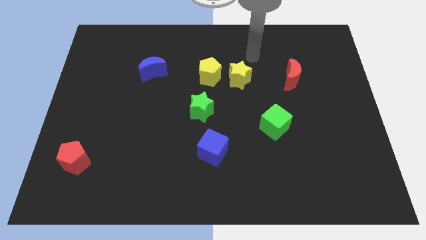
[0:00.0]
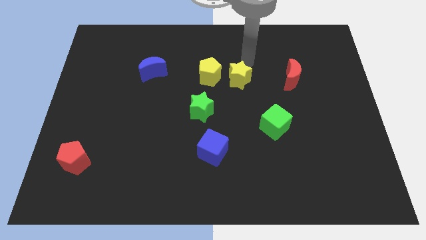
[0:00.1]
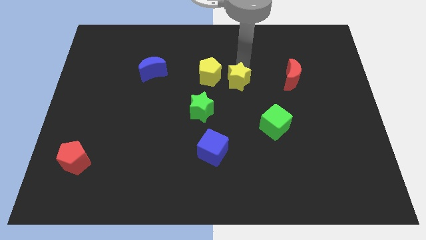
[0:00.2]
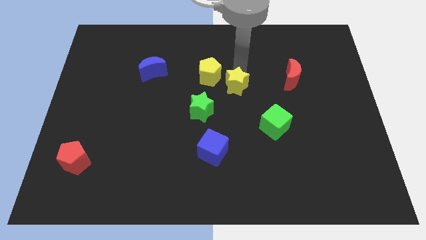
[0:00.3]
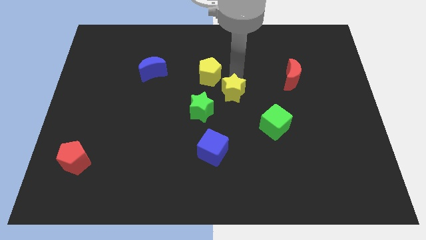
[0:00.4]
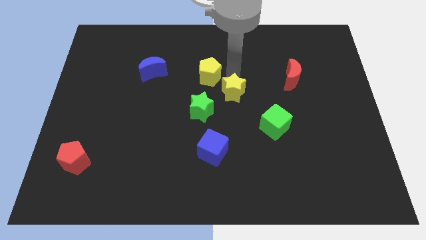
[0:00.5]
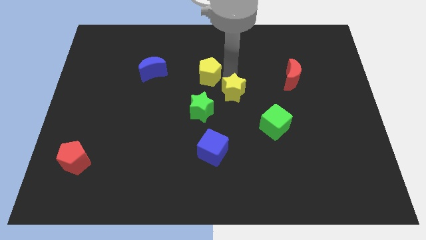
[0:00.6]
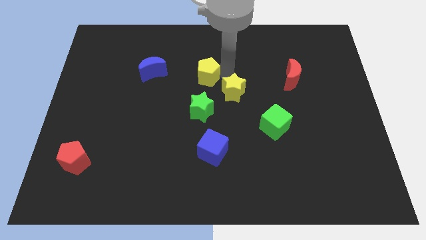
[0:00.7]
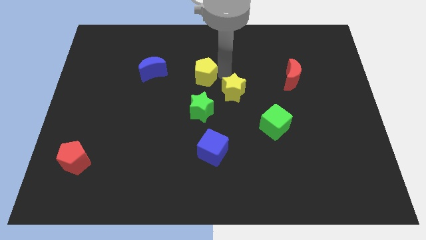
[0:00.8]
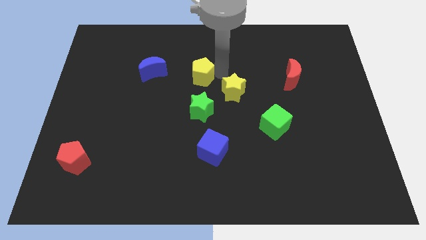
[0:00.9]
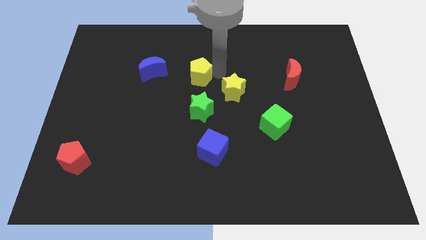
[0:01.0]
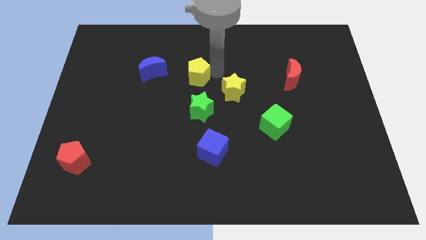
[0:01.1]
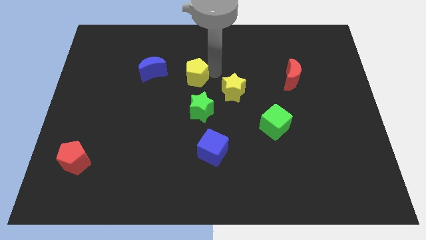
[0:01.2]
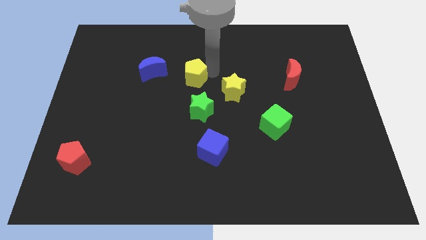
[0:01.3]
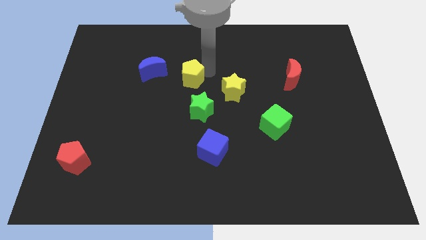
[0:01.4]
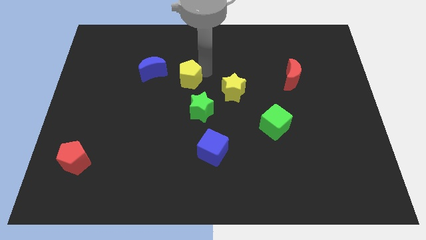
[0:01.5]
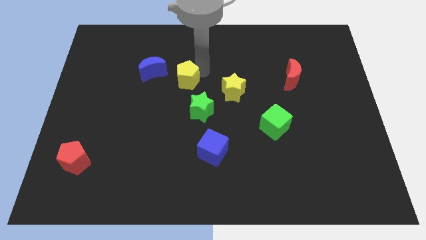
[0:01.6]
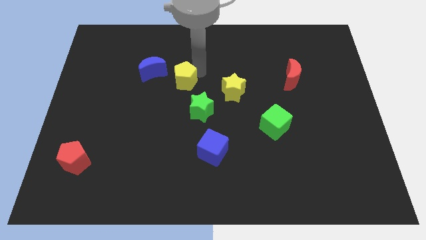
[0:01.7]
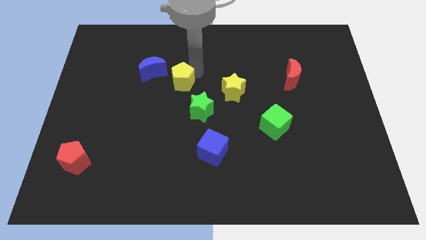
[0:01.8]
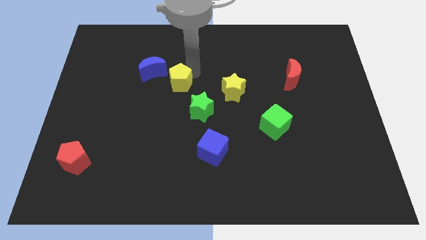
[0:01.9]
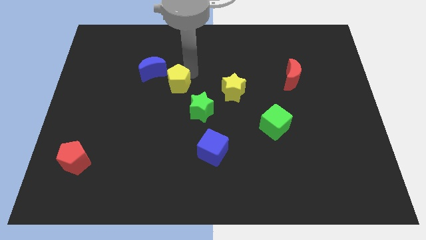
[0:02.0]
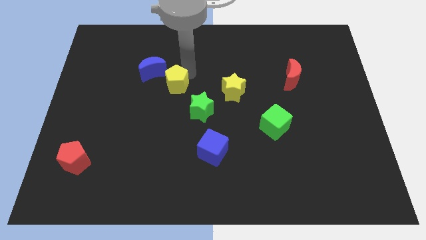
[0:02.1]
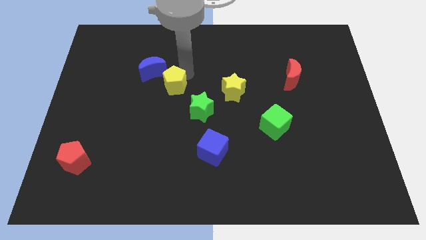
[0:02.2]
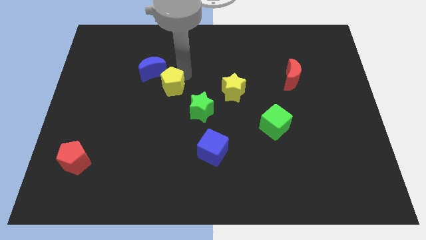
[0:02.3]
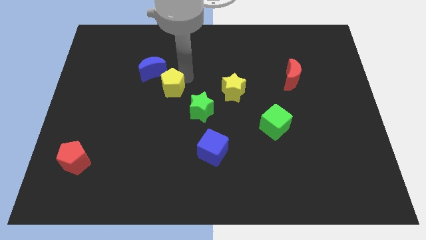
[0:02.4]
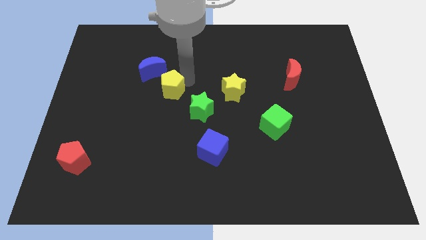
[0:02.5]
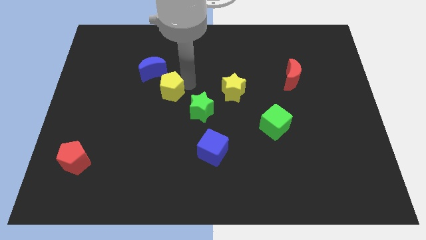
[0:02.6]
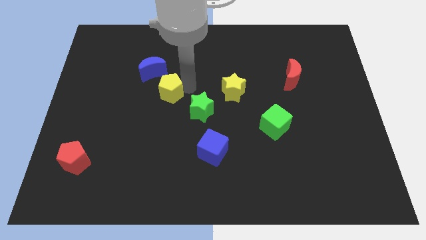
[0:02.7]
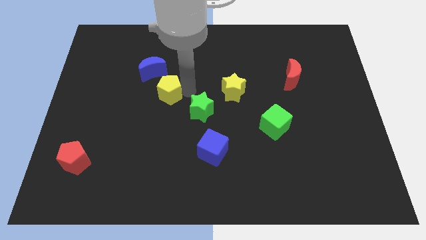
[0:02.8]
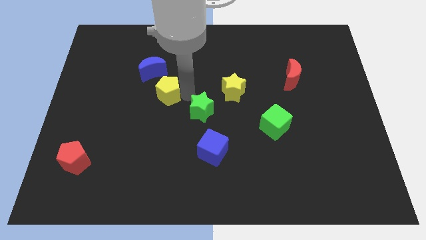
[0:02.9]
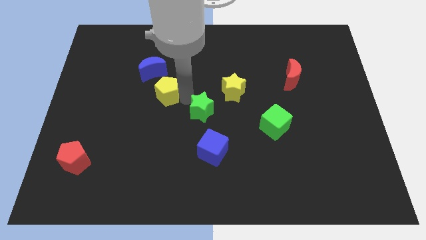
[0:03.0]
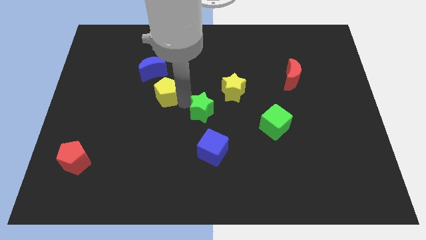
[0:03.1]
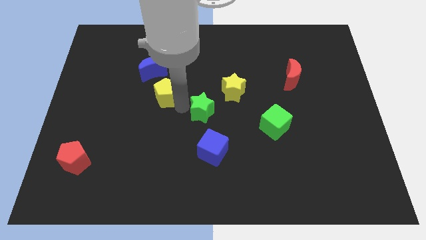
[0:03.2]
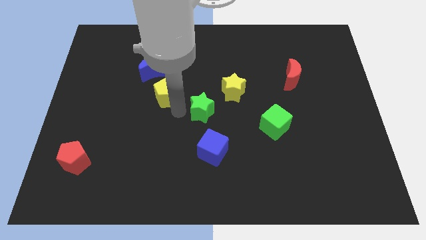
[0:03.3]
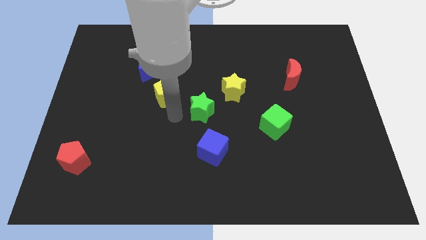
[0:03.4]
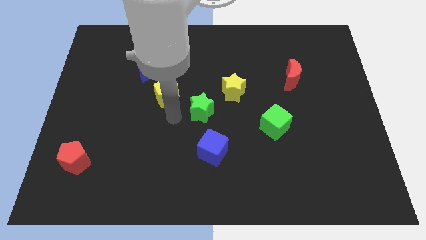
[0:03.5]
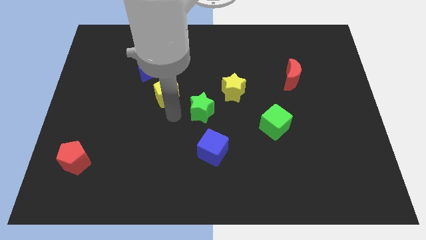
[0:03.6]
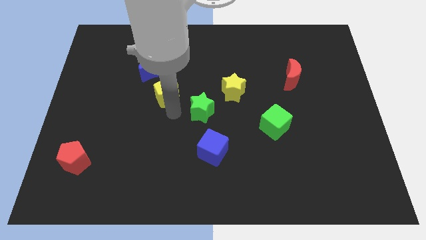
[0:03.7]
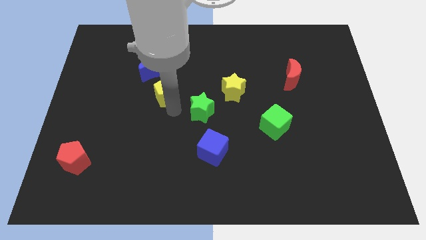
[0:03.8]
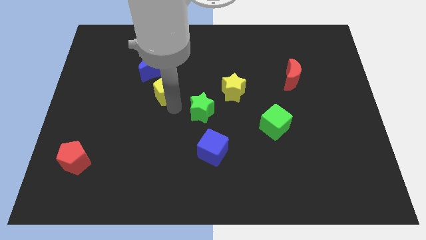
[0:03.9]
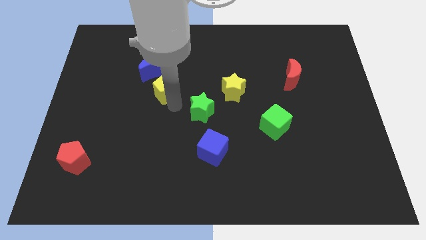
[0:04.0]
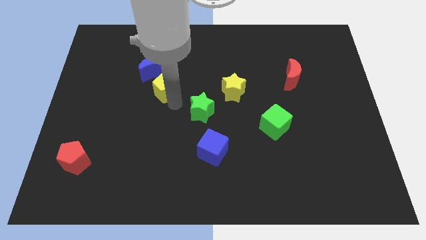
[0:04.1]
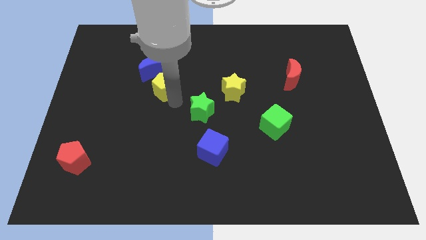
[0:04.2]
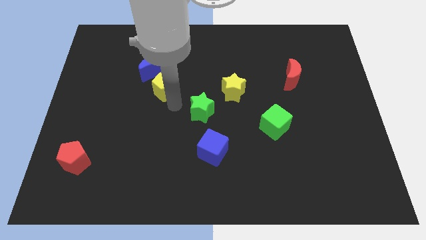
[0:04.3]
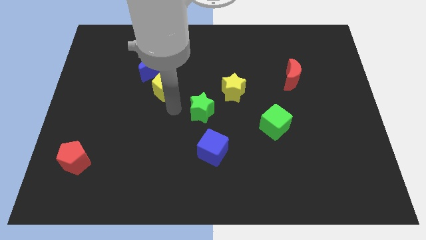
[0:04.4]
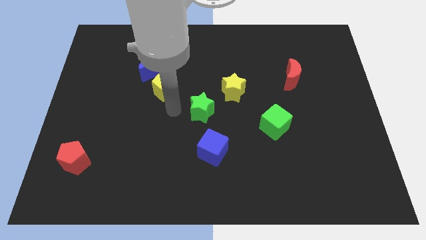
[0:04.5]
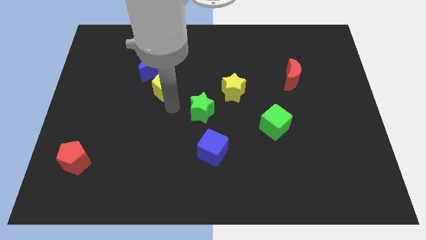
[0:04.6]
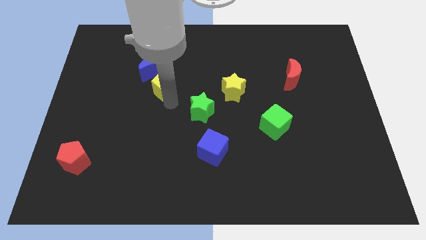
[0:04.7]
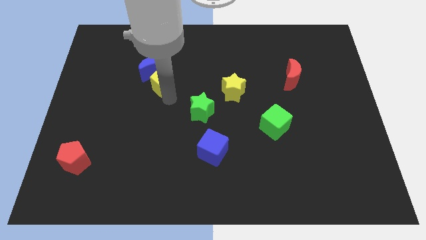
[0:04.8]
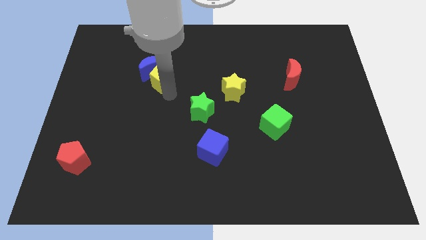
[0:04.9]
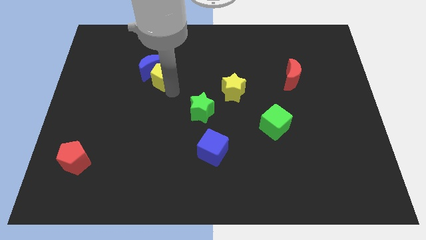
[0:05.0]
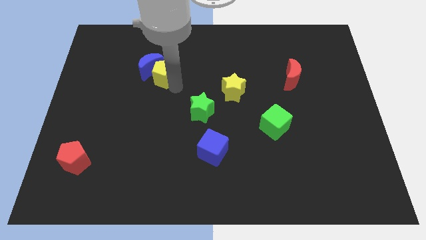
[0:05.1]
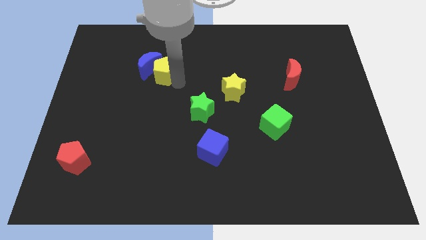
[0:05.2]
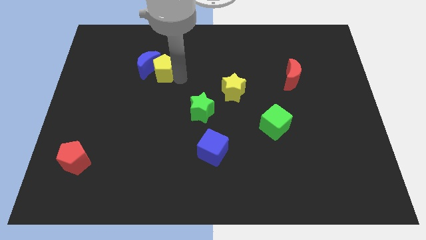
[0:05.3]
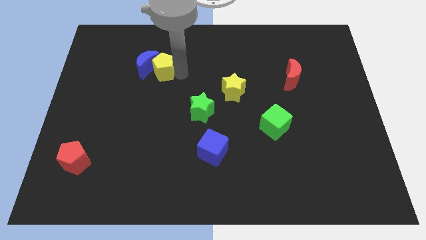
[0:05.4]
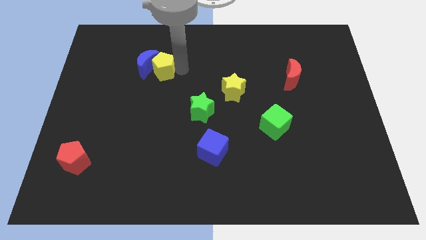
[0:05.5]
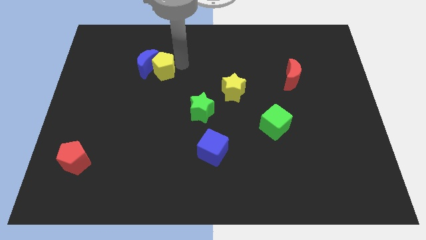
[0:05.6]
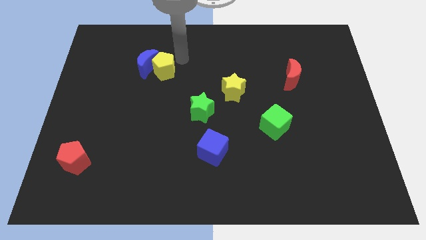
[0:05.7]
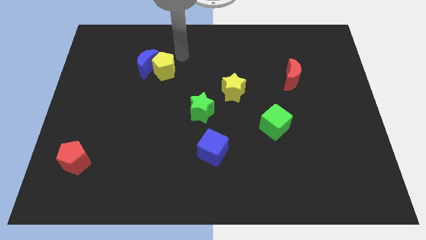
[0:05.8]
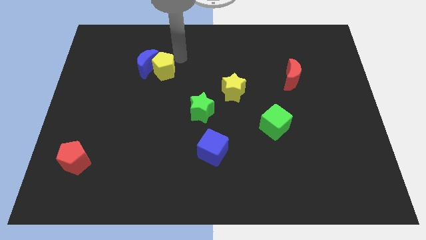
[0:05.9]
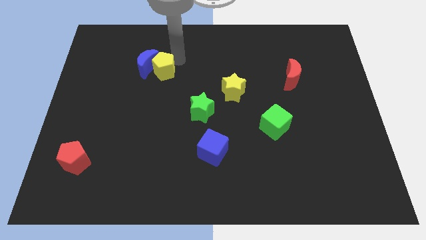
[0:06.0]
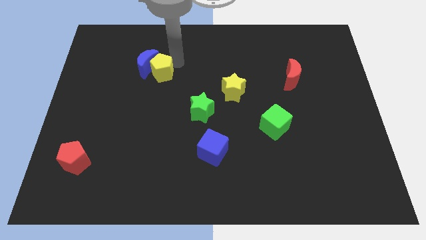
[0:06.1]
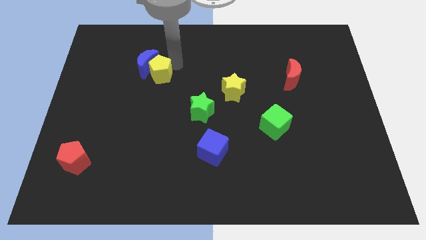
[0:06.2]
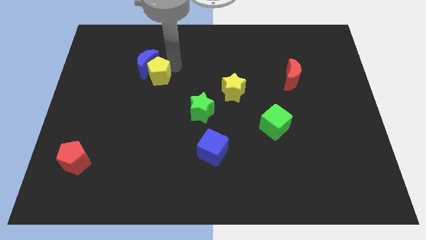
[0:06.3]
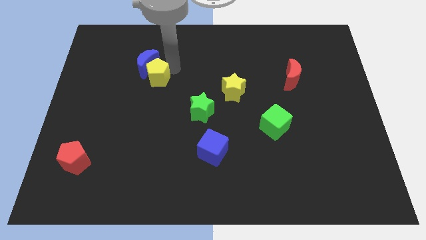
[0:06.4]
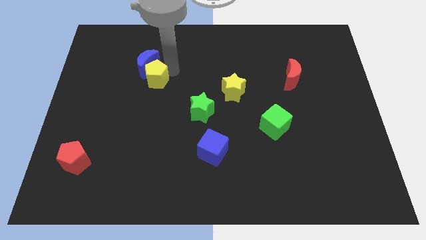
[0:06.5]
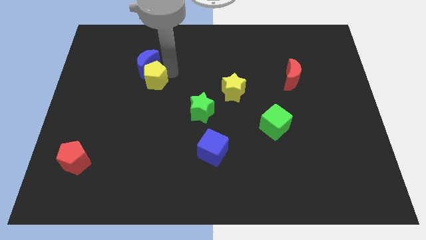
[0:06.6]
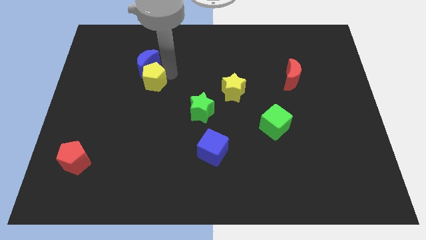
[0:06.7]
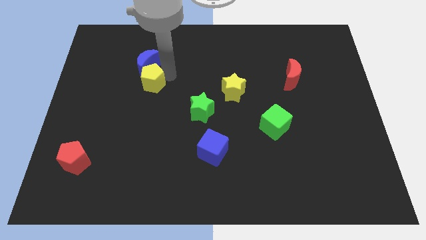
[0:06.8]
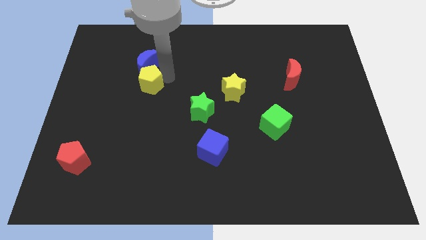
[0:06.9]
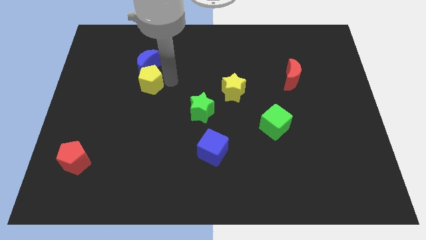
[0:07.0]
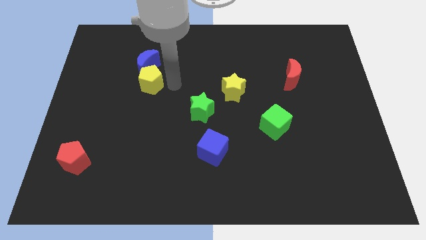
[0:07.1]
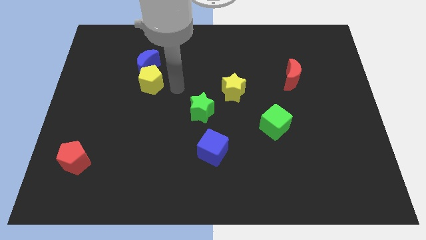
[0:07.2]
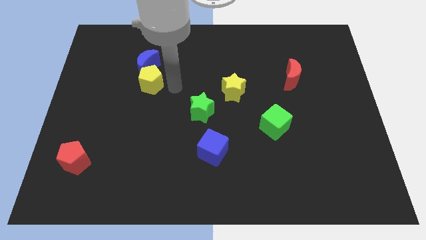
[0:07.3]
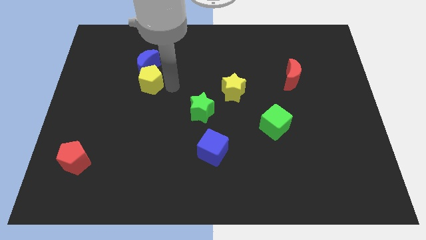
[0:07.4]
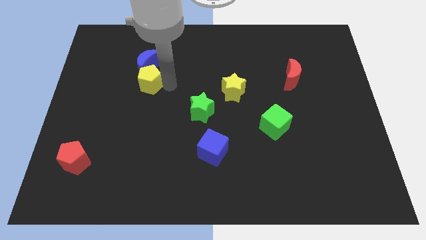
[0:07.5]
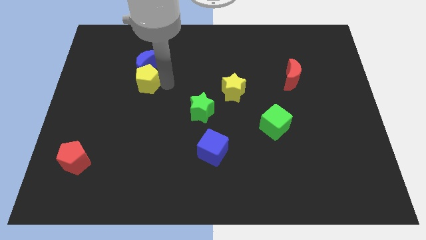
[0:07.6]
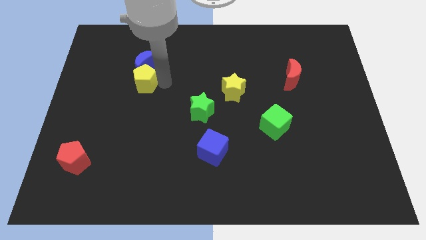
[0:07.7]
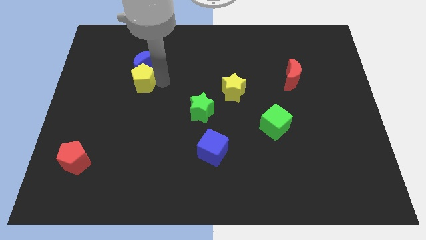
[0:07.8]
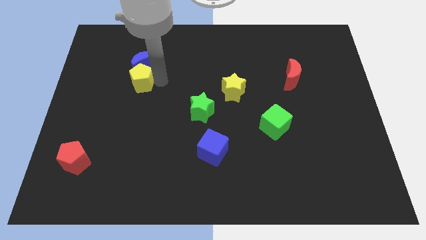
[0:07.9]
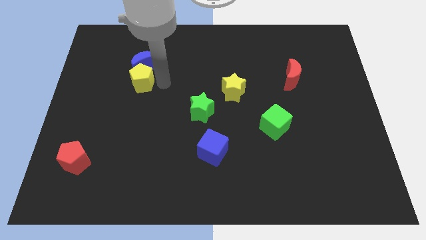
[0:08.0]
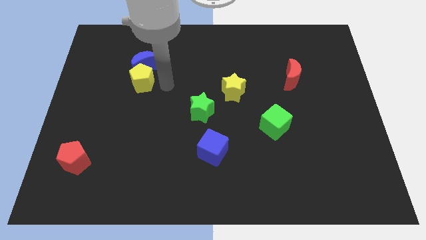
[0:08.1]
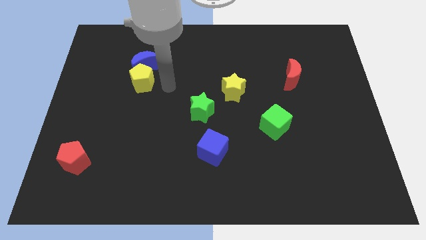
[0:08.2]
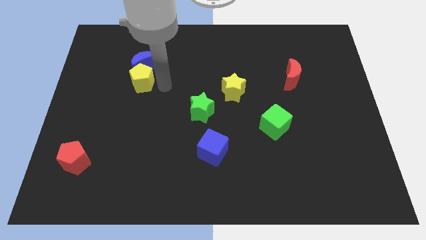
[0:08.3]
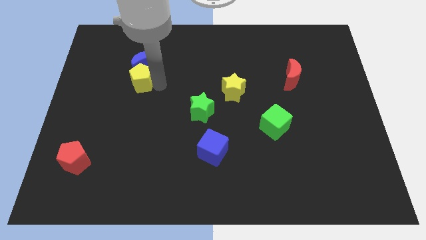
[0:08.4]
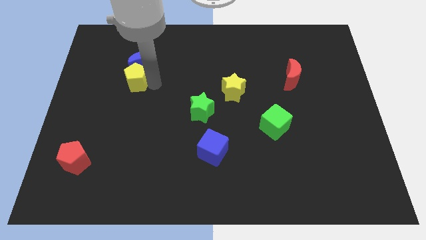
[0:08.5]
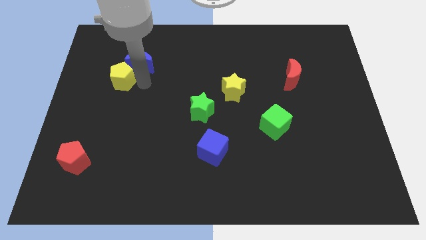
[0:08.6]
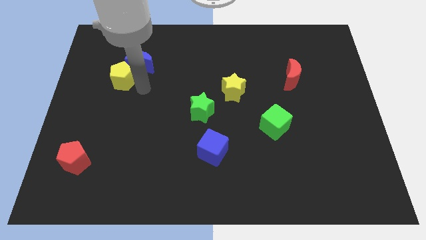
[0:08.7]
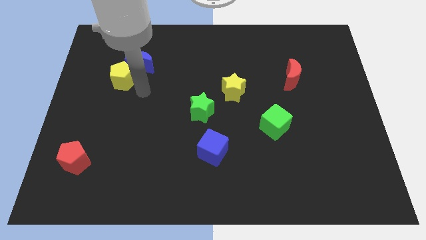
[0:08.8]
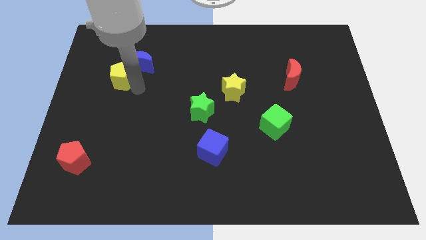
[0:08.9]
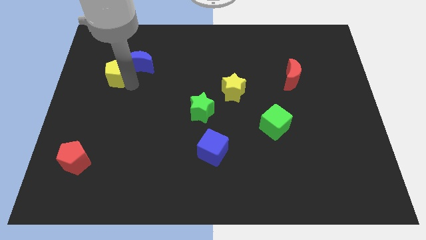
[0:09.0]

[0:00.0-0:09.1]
push the yellow pentagon left of the blue moon
